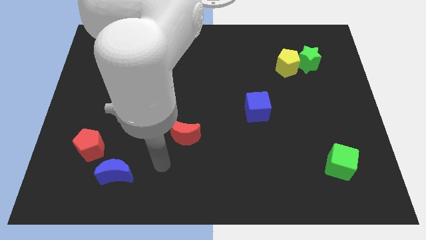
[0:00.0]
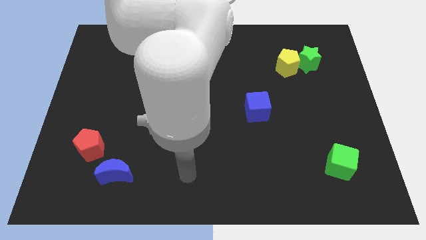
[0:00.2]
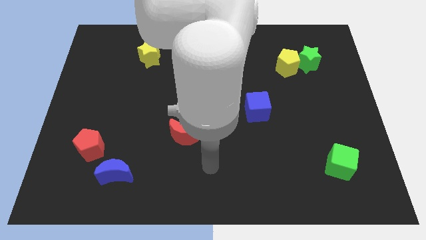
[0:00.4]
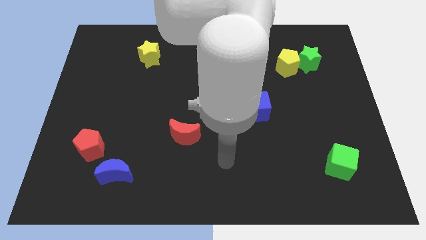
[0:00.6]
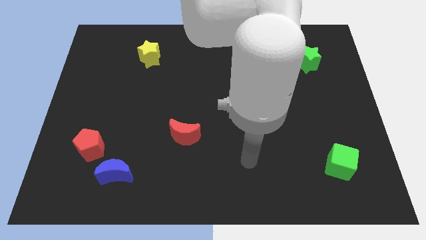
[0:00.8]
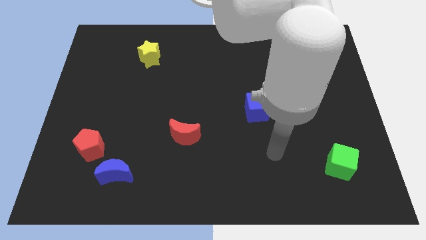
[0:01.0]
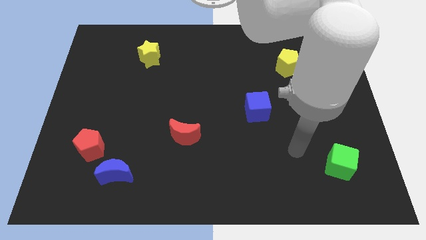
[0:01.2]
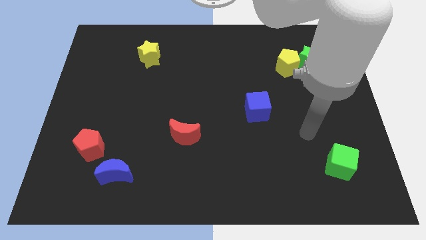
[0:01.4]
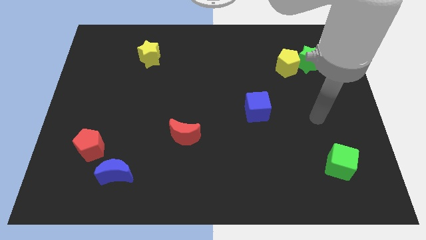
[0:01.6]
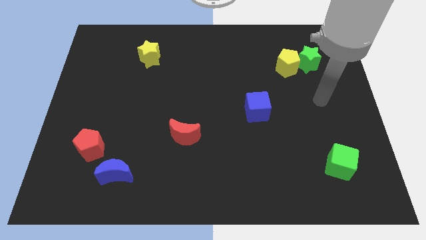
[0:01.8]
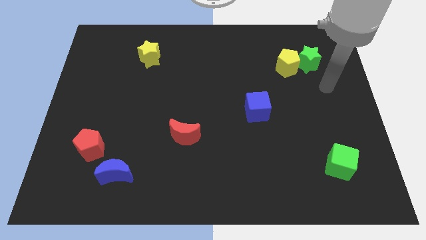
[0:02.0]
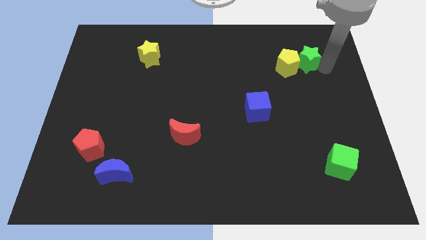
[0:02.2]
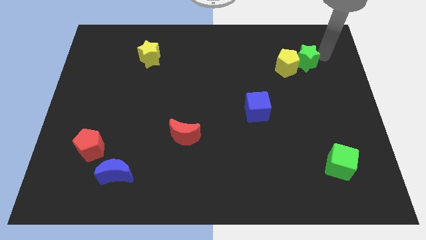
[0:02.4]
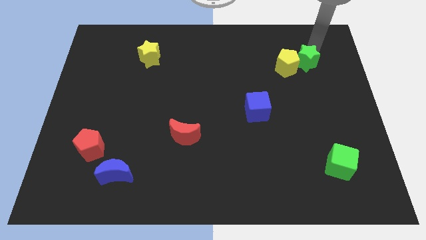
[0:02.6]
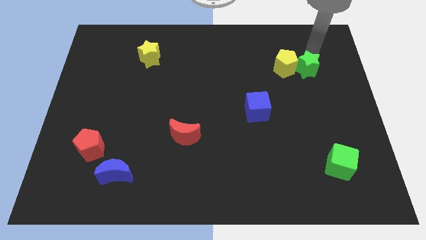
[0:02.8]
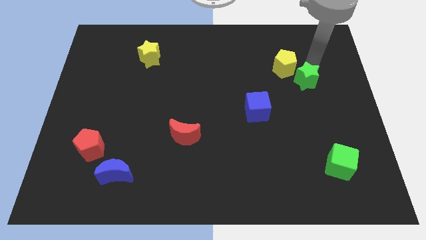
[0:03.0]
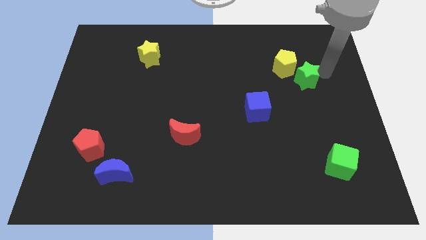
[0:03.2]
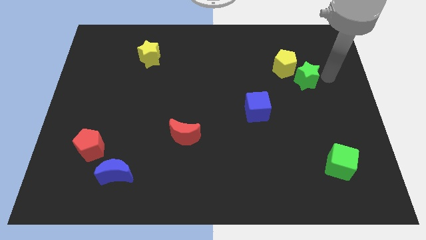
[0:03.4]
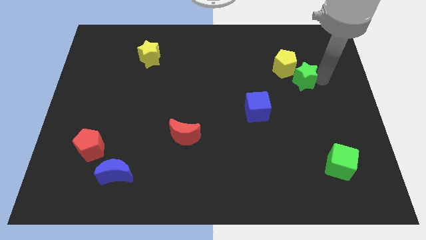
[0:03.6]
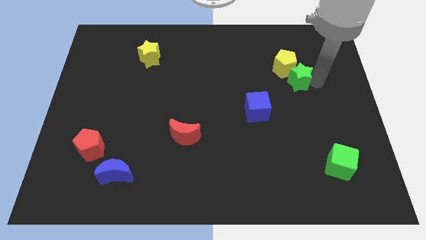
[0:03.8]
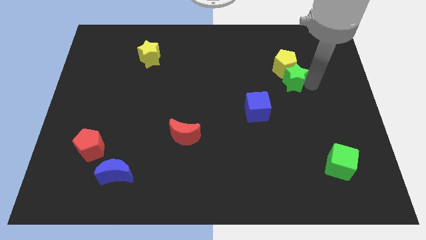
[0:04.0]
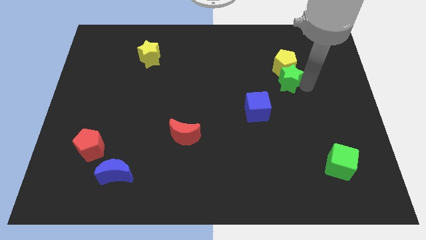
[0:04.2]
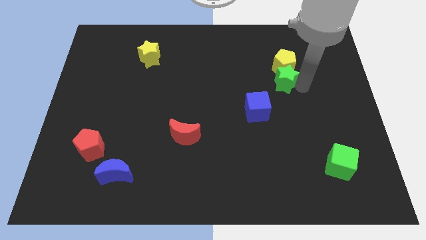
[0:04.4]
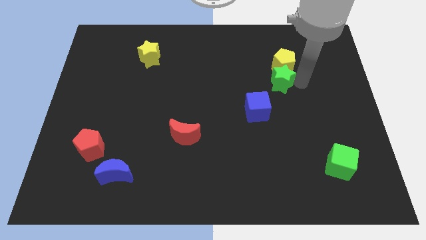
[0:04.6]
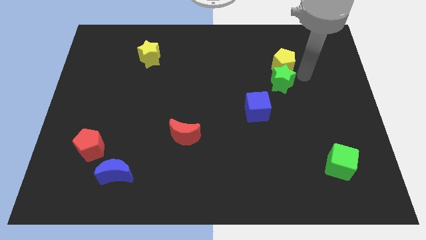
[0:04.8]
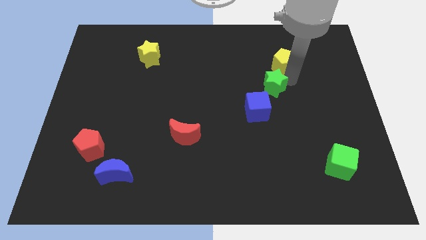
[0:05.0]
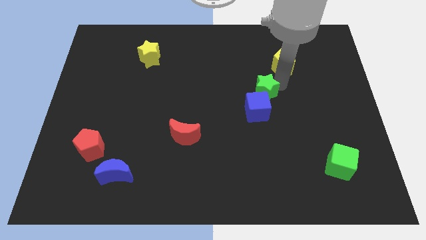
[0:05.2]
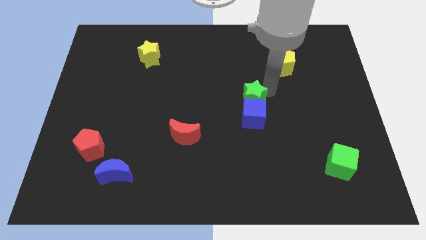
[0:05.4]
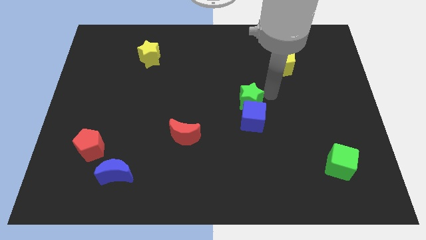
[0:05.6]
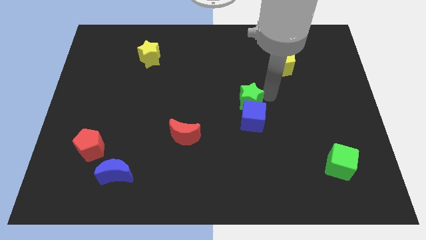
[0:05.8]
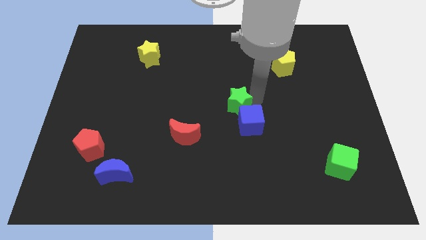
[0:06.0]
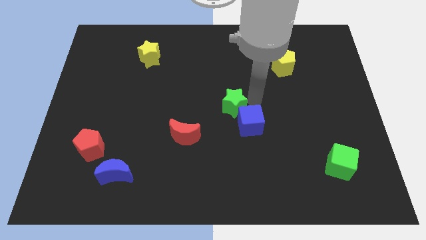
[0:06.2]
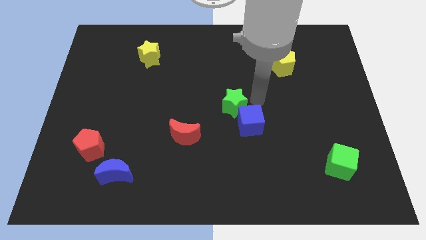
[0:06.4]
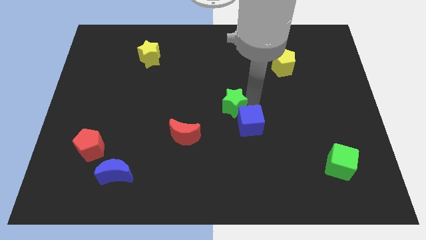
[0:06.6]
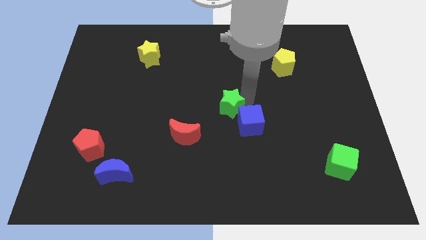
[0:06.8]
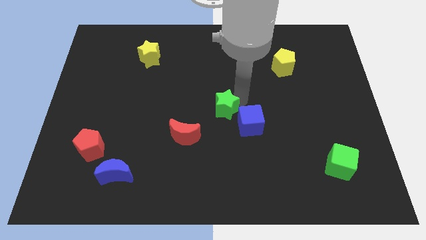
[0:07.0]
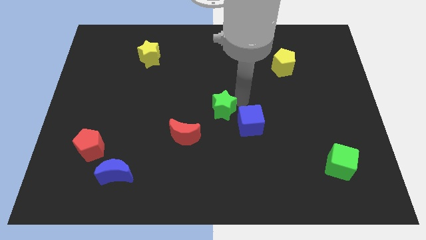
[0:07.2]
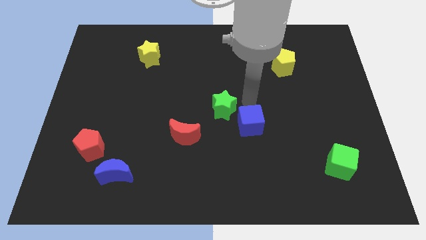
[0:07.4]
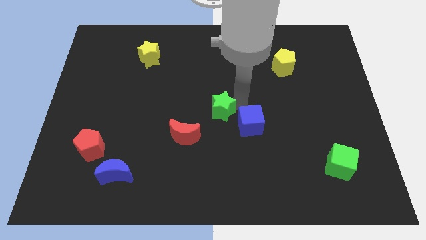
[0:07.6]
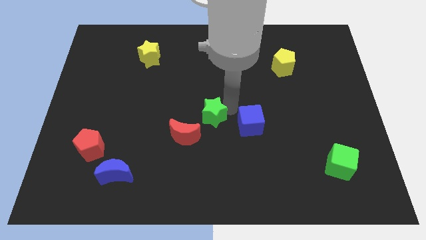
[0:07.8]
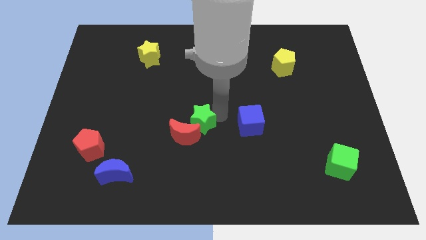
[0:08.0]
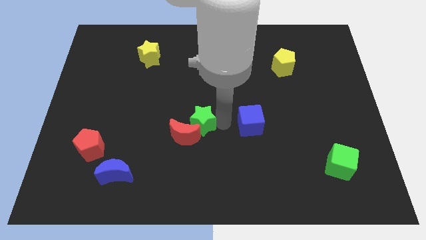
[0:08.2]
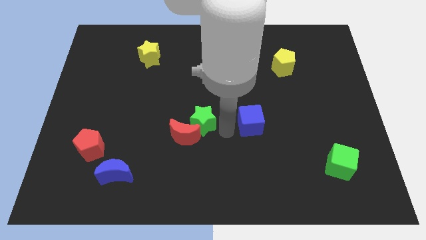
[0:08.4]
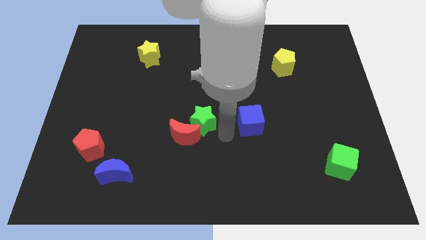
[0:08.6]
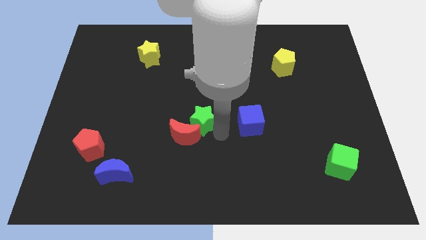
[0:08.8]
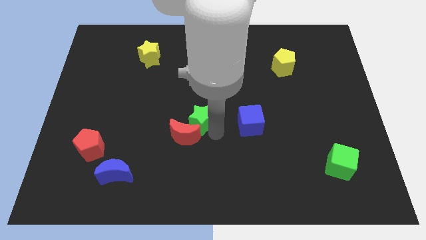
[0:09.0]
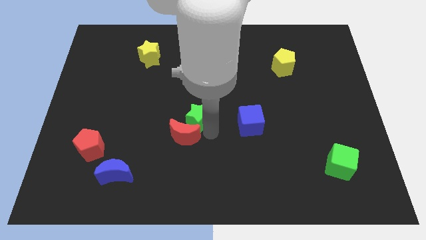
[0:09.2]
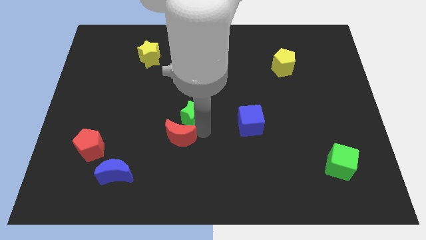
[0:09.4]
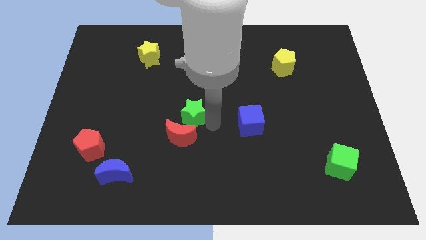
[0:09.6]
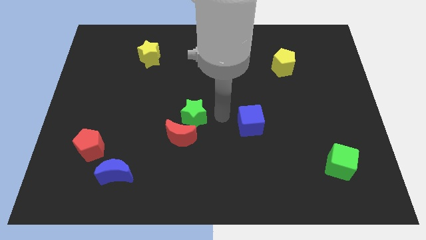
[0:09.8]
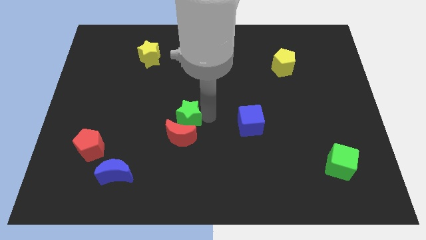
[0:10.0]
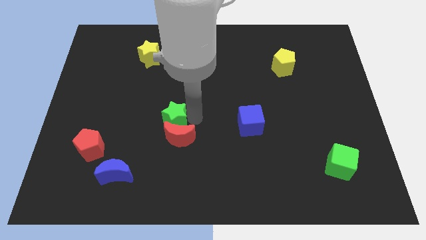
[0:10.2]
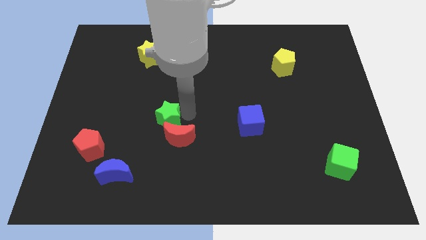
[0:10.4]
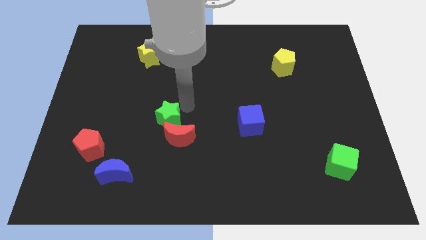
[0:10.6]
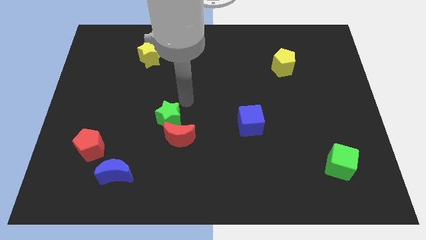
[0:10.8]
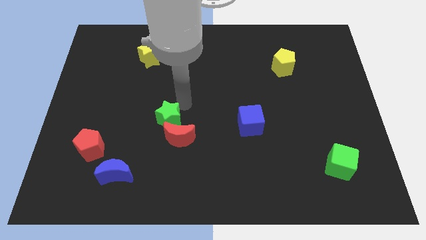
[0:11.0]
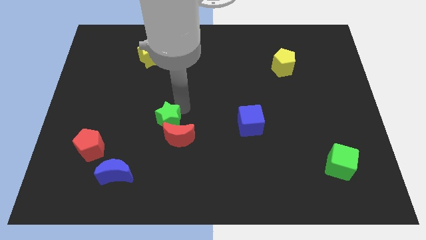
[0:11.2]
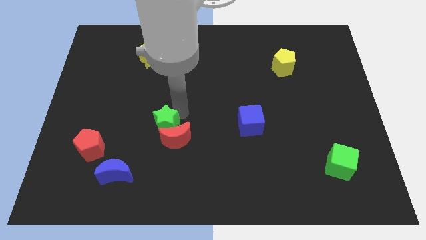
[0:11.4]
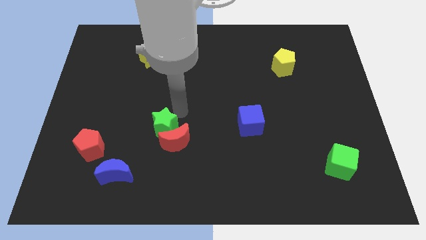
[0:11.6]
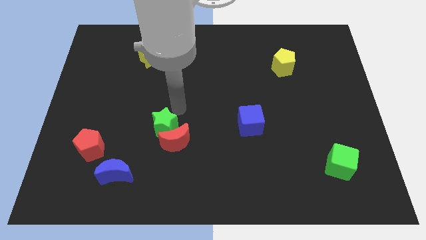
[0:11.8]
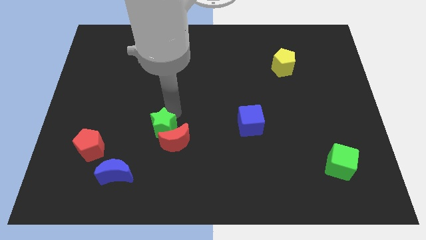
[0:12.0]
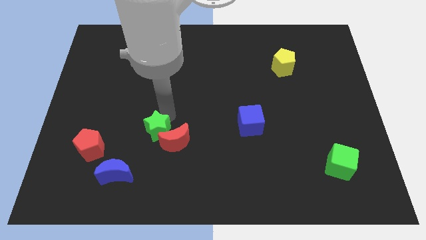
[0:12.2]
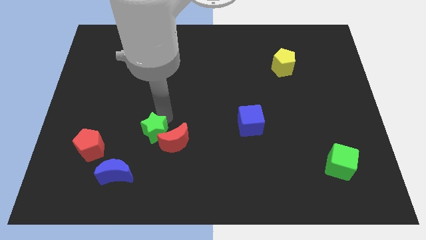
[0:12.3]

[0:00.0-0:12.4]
move the green star diagonally up and to the right of the blue moon

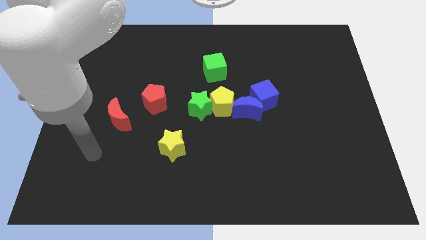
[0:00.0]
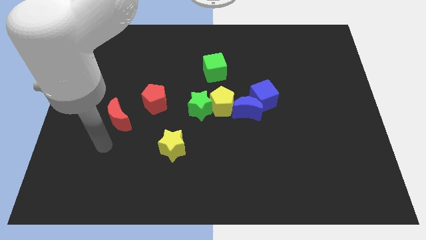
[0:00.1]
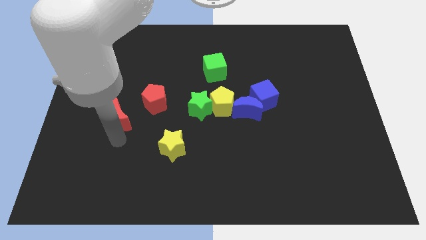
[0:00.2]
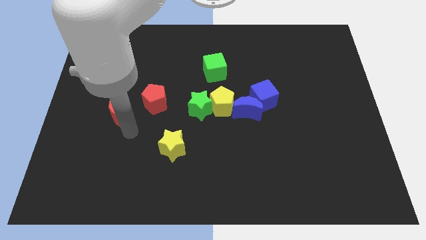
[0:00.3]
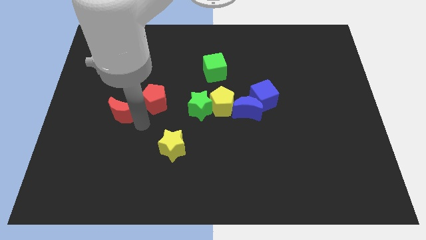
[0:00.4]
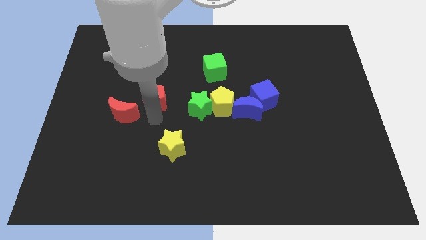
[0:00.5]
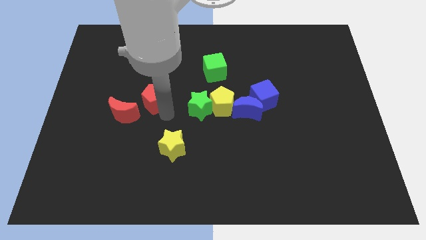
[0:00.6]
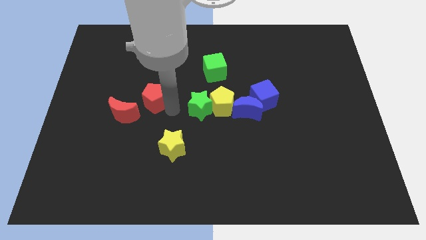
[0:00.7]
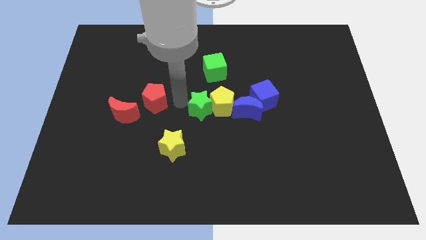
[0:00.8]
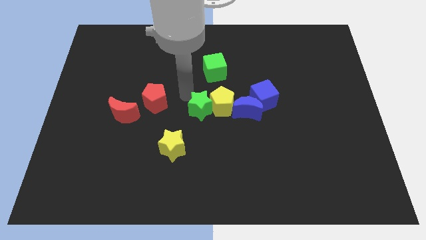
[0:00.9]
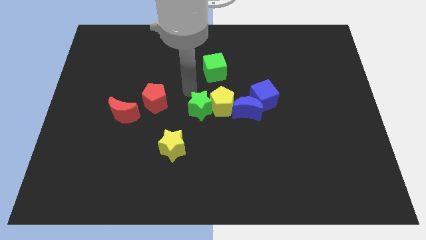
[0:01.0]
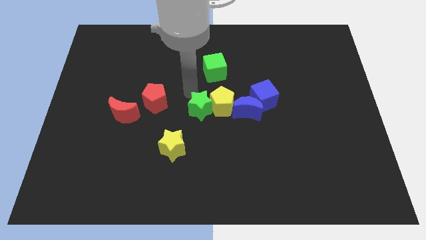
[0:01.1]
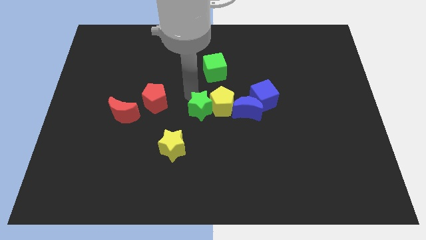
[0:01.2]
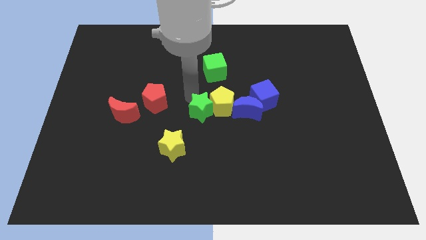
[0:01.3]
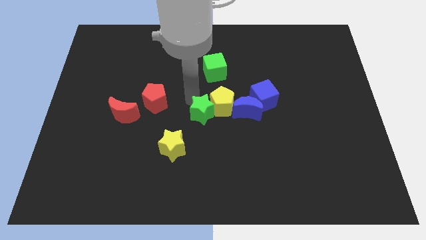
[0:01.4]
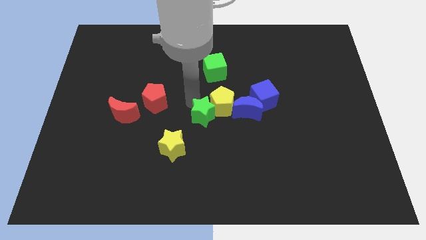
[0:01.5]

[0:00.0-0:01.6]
slide the green star to the bottom side of the yellow pentagon
